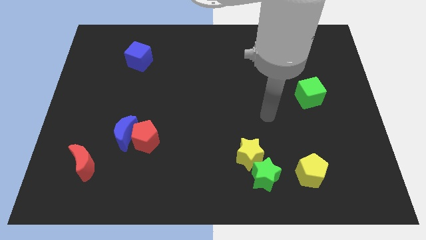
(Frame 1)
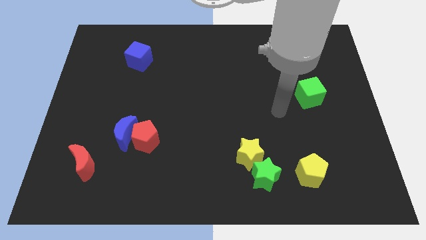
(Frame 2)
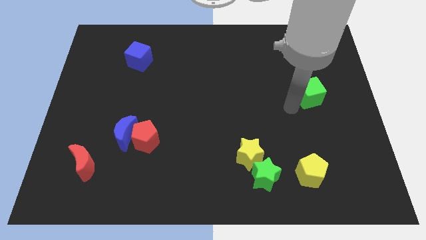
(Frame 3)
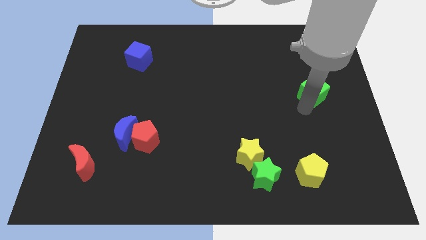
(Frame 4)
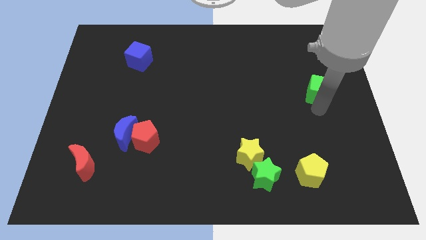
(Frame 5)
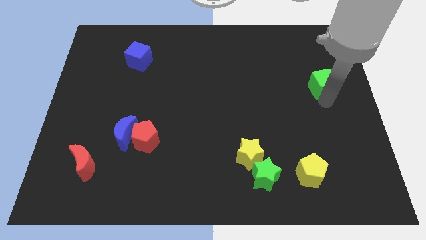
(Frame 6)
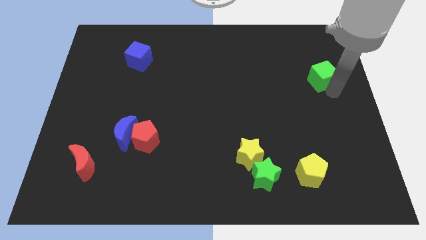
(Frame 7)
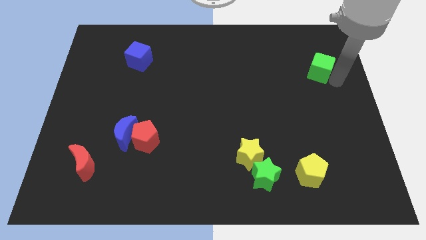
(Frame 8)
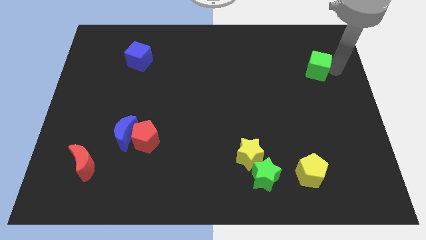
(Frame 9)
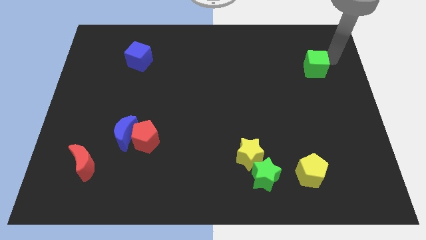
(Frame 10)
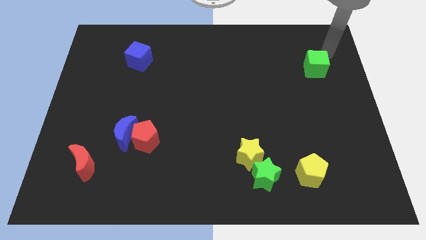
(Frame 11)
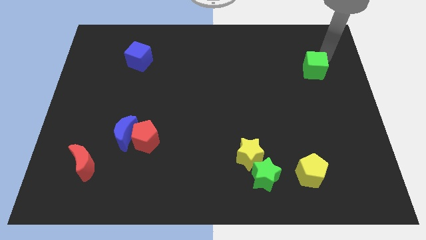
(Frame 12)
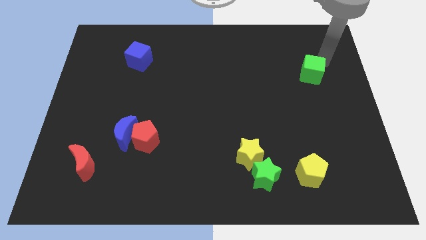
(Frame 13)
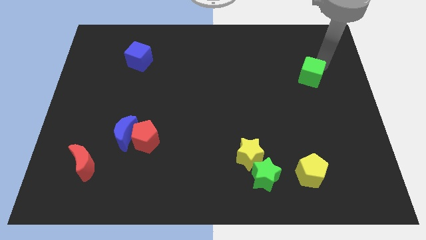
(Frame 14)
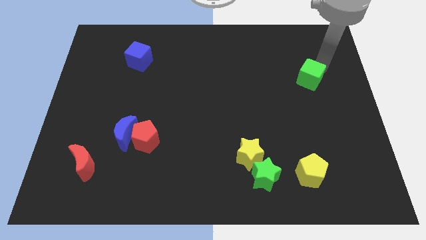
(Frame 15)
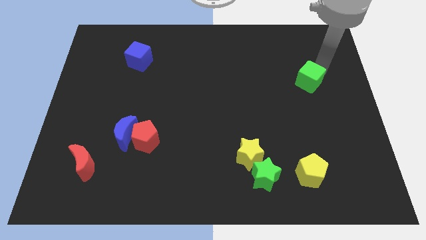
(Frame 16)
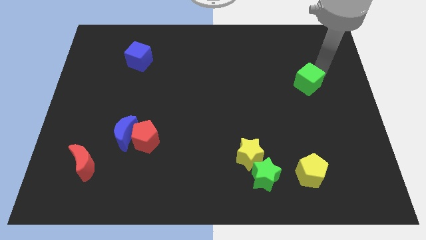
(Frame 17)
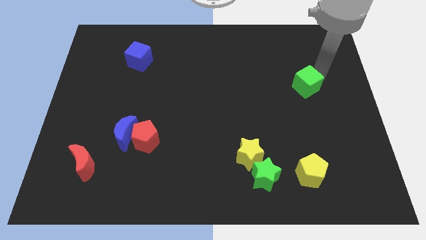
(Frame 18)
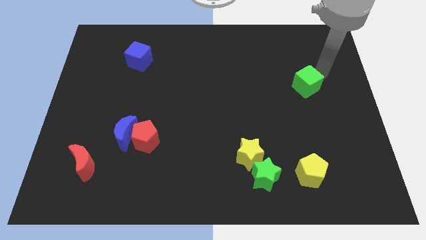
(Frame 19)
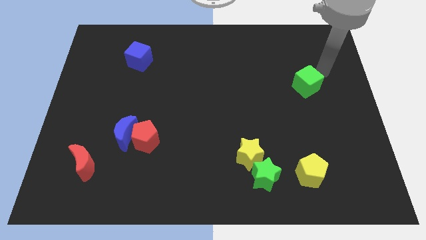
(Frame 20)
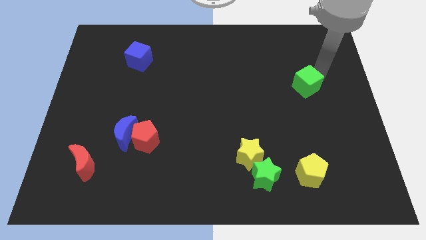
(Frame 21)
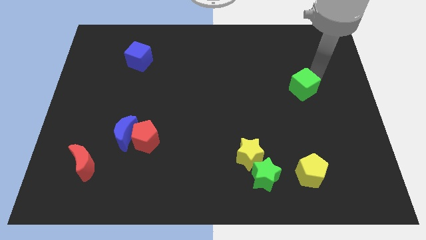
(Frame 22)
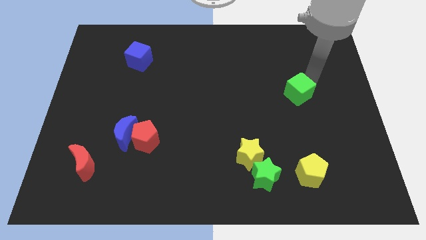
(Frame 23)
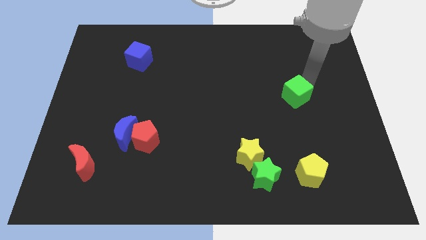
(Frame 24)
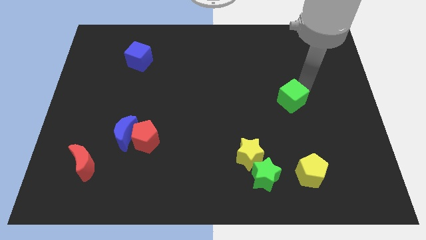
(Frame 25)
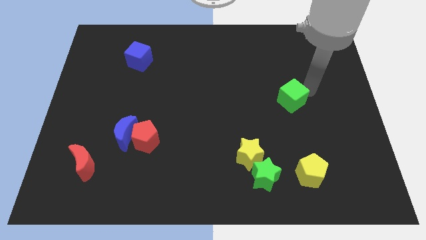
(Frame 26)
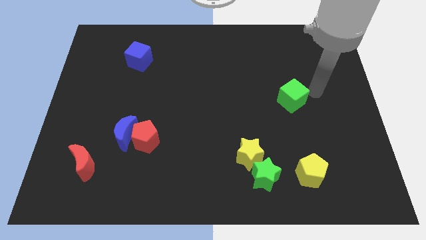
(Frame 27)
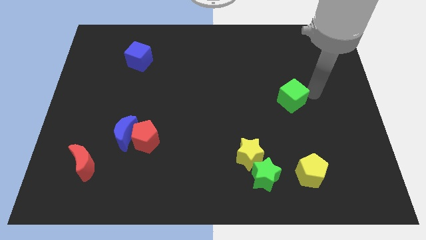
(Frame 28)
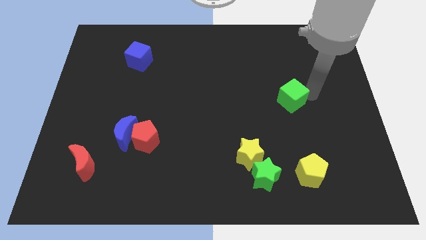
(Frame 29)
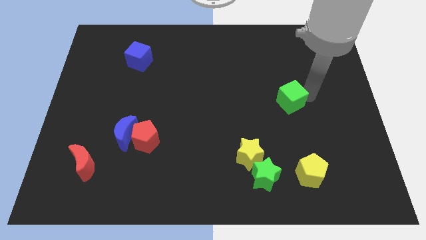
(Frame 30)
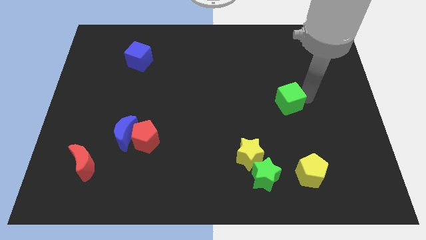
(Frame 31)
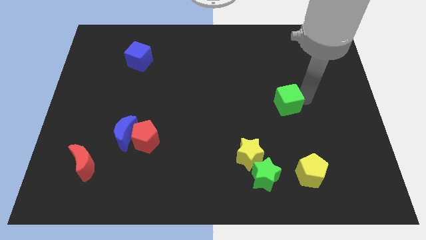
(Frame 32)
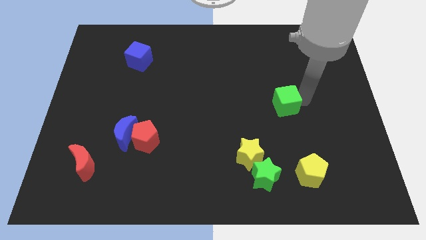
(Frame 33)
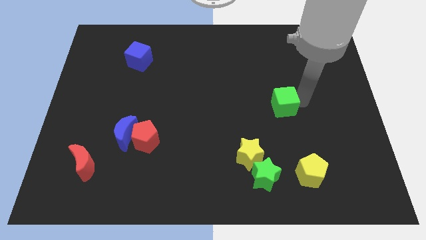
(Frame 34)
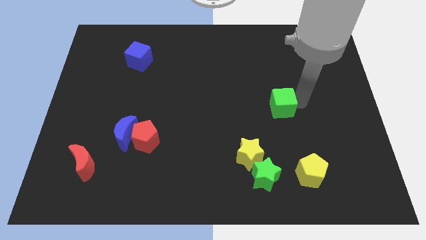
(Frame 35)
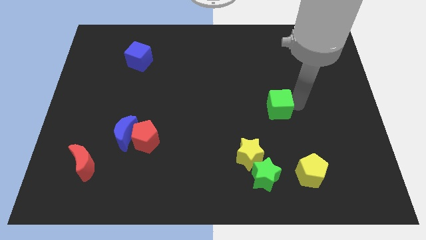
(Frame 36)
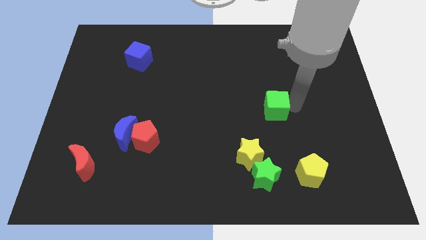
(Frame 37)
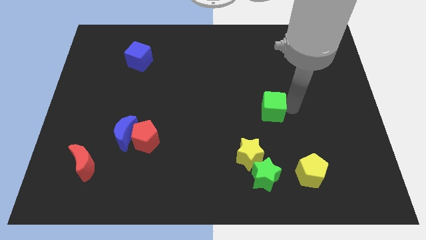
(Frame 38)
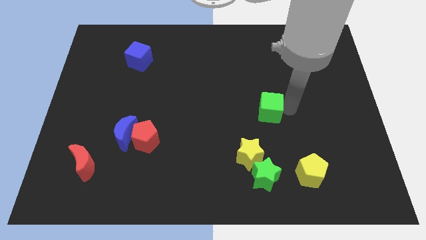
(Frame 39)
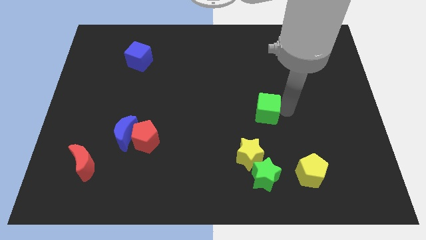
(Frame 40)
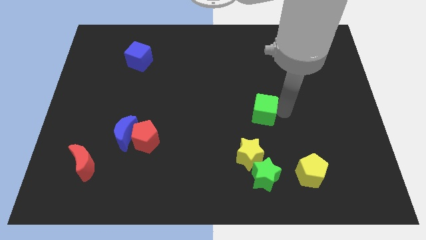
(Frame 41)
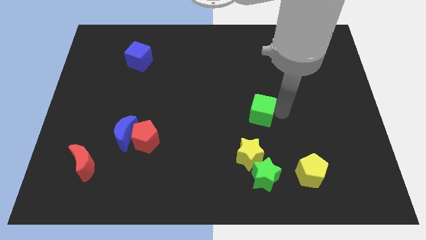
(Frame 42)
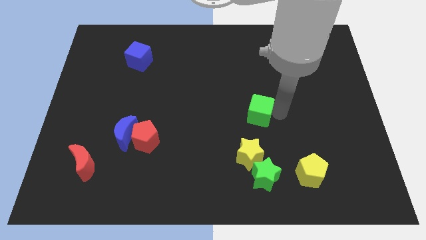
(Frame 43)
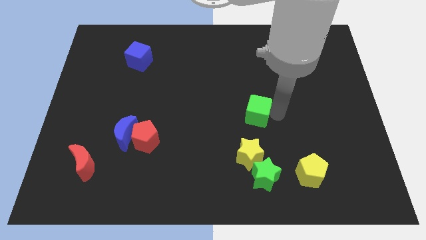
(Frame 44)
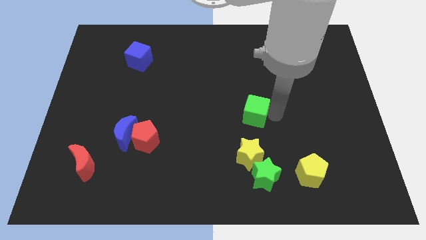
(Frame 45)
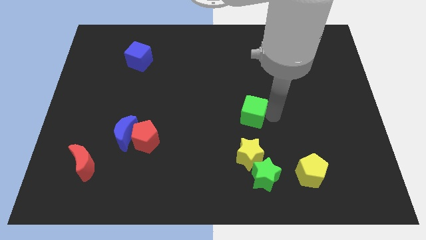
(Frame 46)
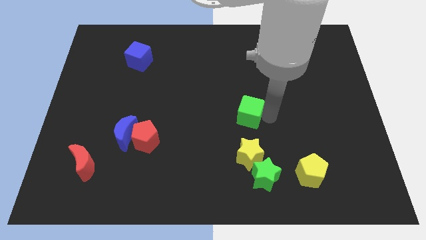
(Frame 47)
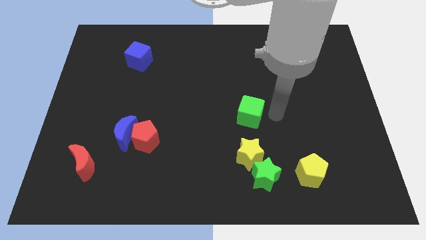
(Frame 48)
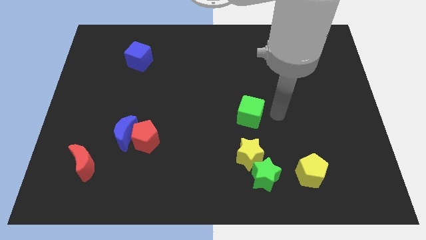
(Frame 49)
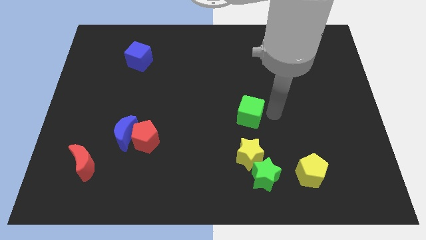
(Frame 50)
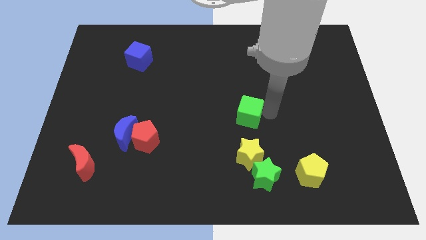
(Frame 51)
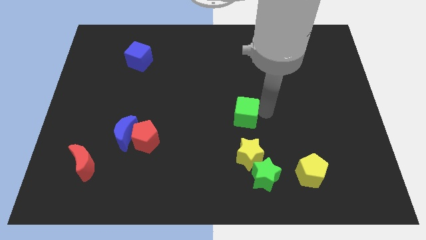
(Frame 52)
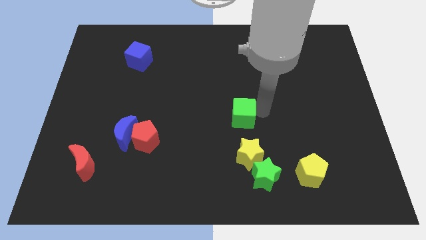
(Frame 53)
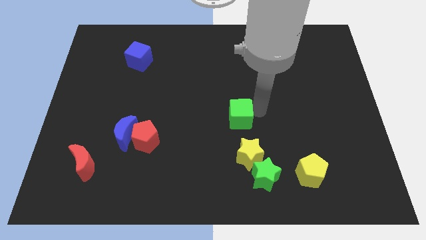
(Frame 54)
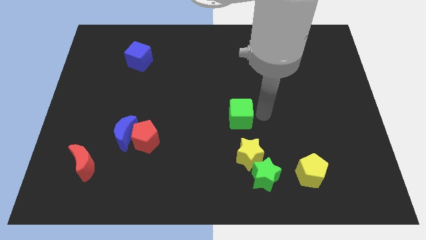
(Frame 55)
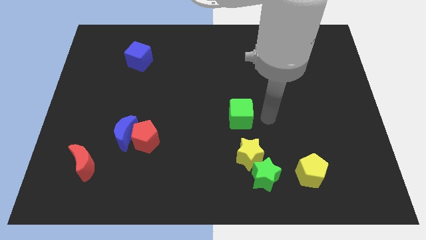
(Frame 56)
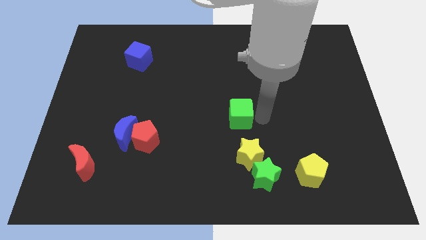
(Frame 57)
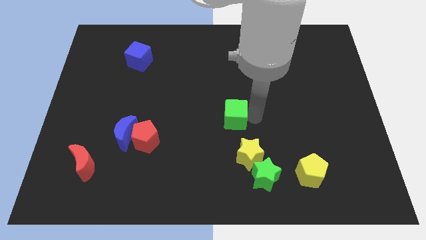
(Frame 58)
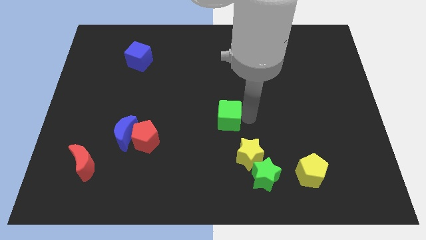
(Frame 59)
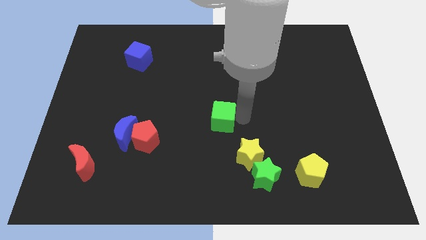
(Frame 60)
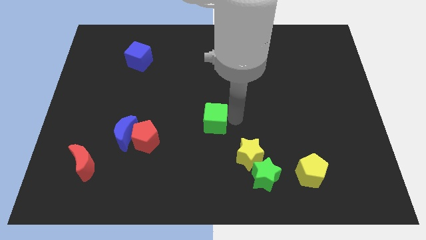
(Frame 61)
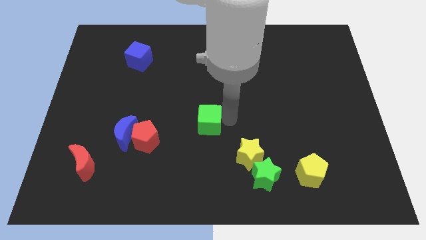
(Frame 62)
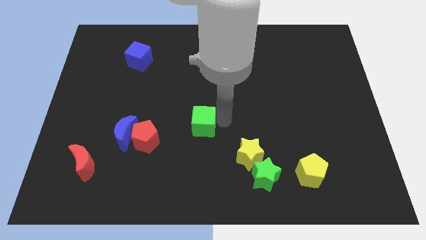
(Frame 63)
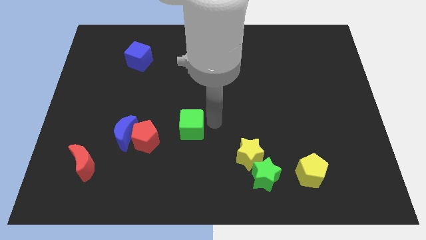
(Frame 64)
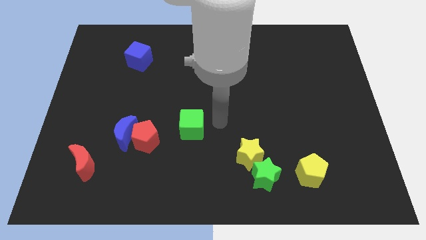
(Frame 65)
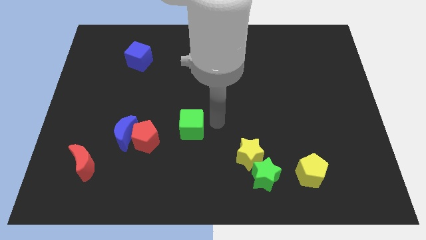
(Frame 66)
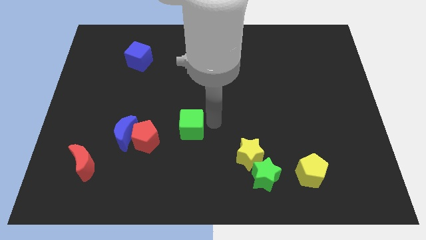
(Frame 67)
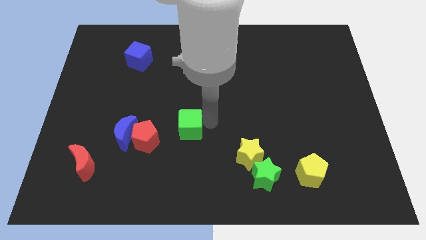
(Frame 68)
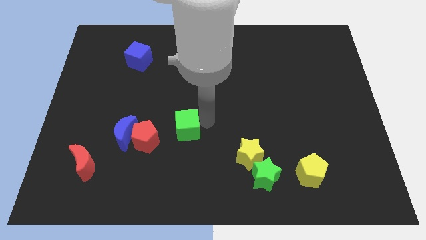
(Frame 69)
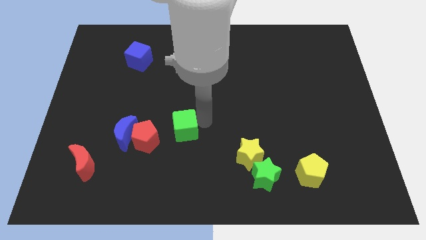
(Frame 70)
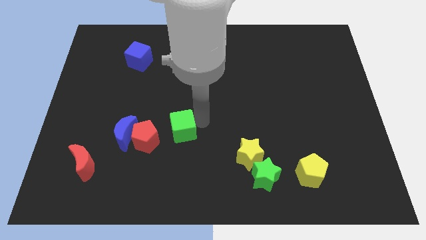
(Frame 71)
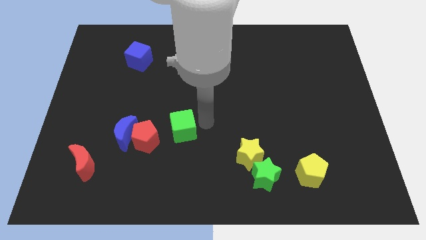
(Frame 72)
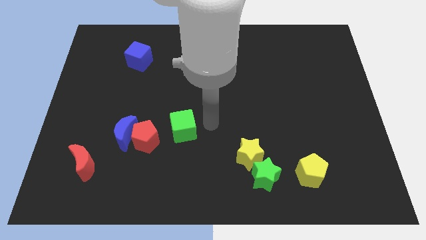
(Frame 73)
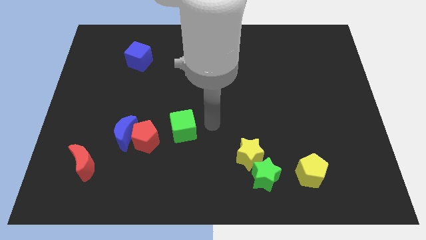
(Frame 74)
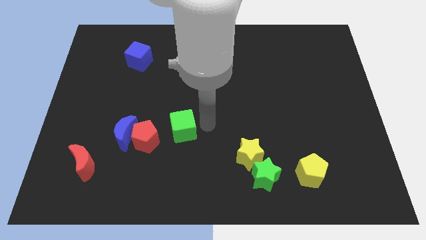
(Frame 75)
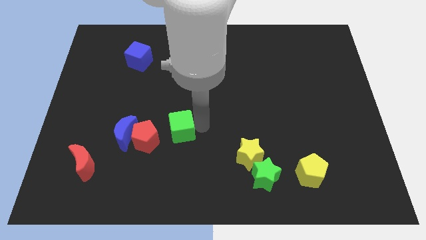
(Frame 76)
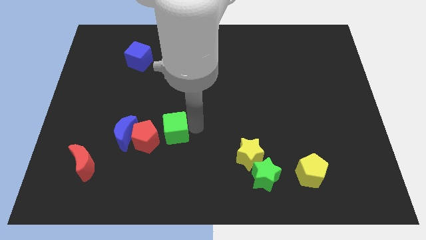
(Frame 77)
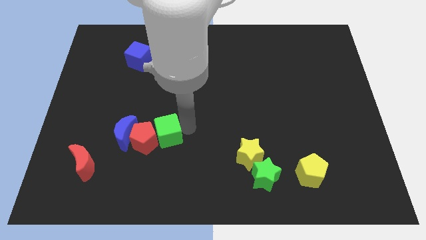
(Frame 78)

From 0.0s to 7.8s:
slide the green cube to the red pentagon
